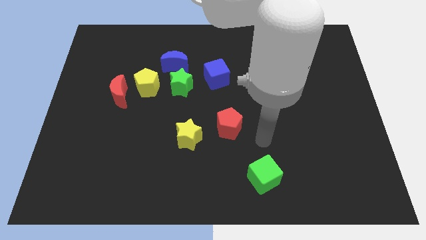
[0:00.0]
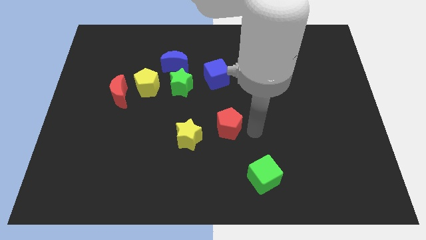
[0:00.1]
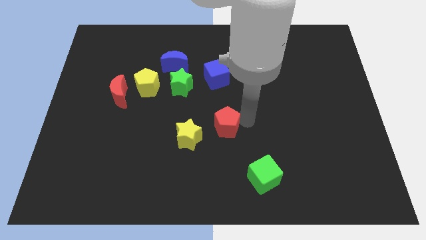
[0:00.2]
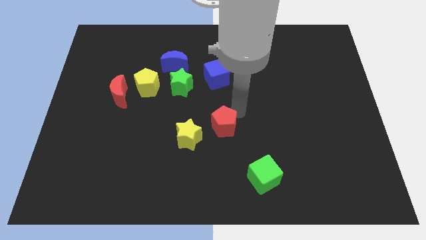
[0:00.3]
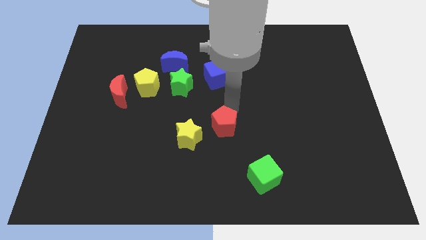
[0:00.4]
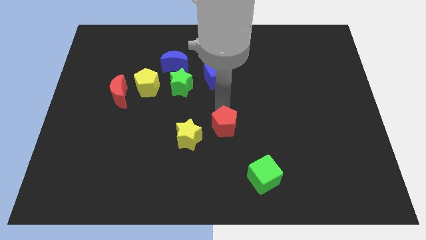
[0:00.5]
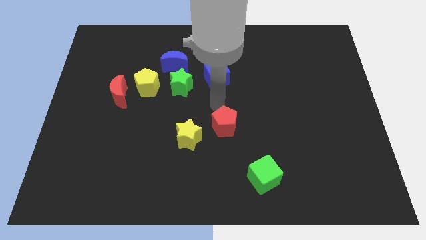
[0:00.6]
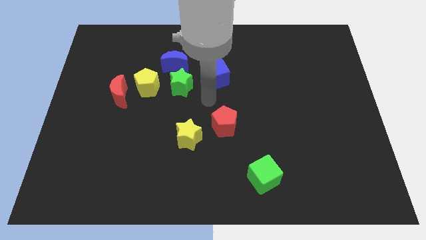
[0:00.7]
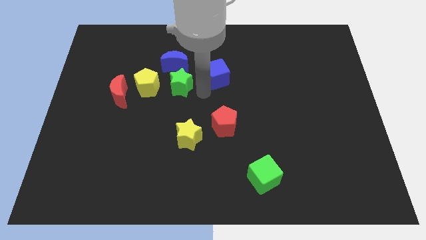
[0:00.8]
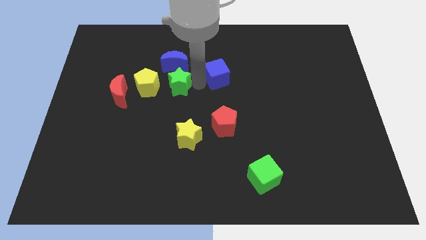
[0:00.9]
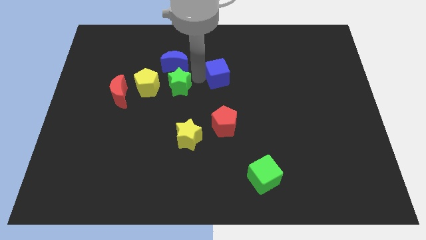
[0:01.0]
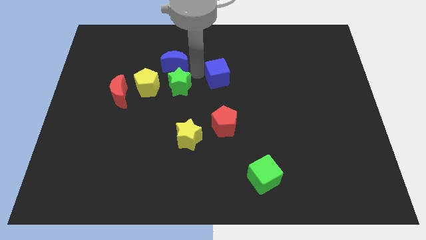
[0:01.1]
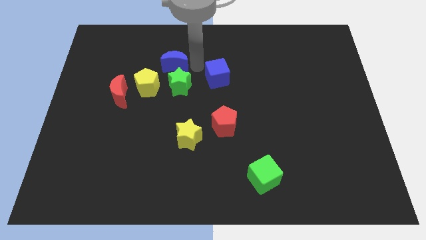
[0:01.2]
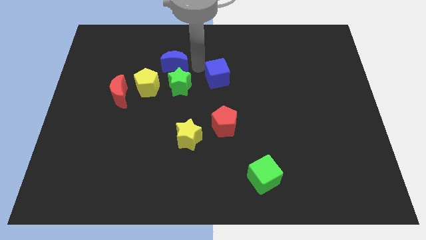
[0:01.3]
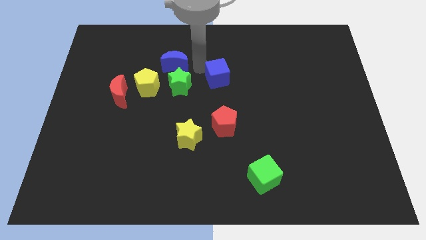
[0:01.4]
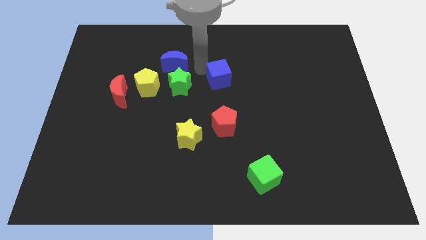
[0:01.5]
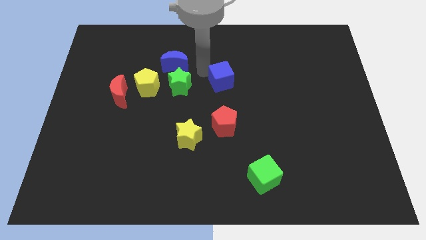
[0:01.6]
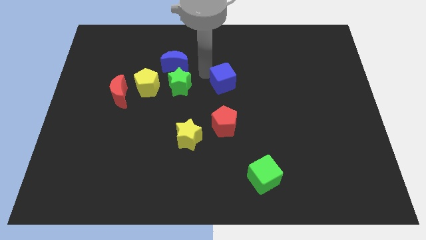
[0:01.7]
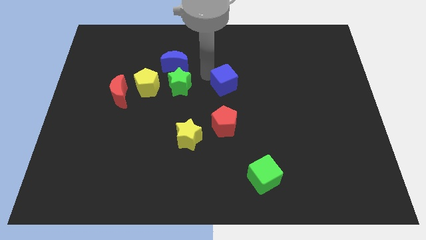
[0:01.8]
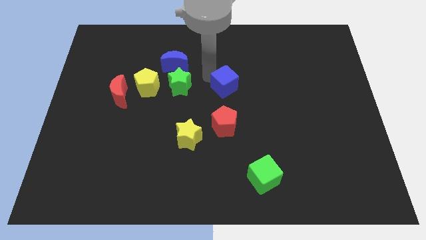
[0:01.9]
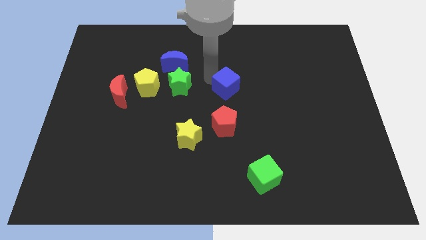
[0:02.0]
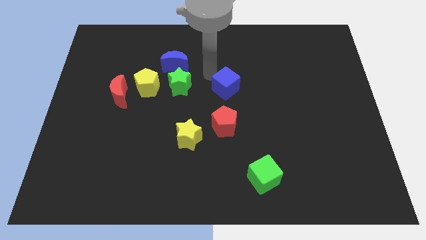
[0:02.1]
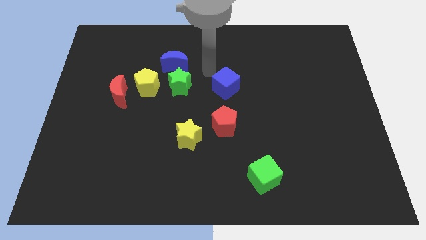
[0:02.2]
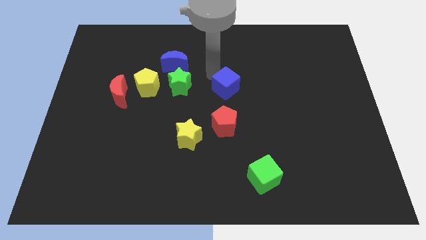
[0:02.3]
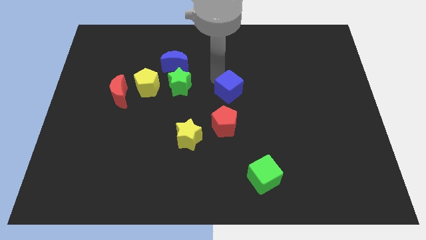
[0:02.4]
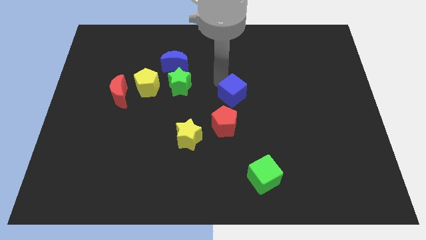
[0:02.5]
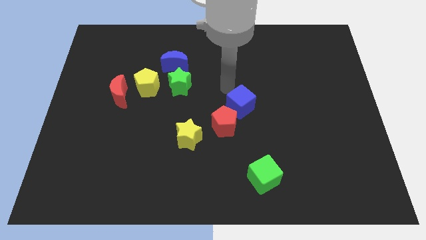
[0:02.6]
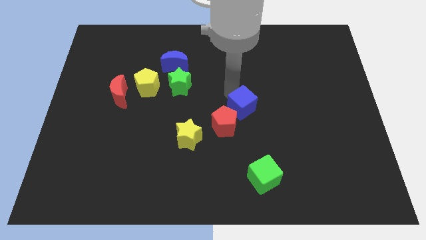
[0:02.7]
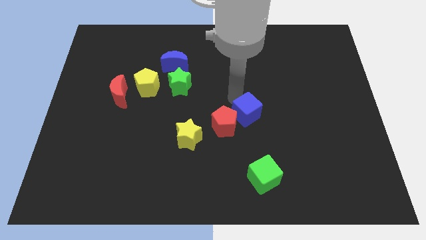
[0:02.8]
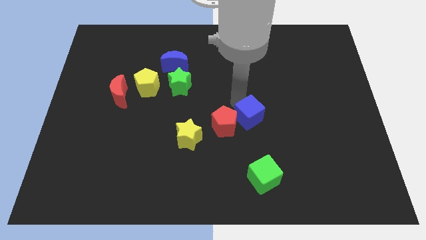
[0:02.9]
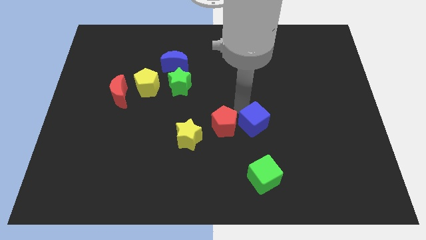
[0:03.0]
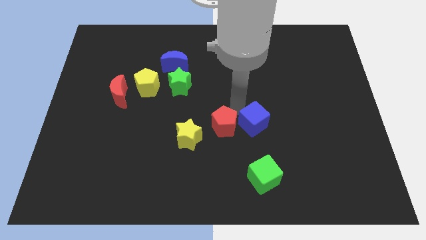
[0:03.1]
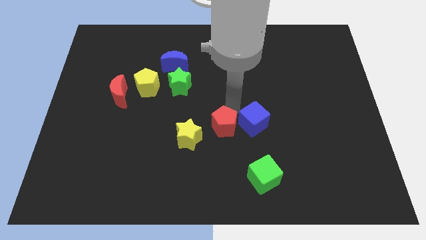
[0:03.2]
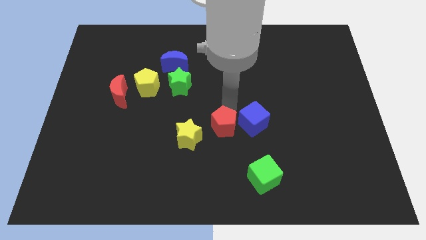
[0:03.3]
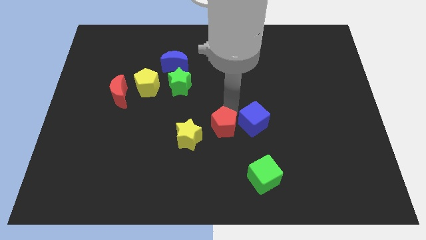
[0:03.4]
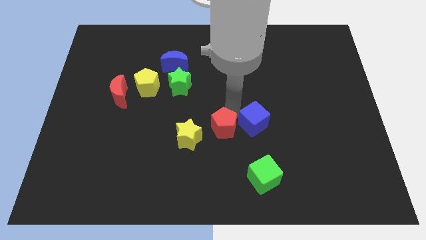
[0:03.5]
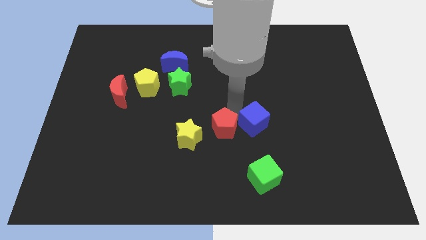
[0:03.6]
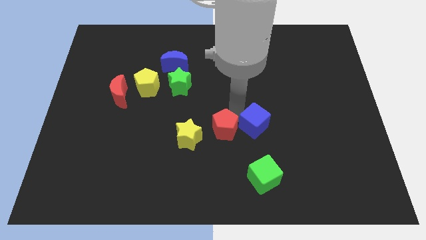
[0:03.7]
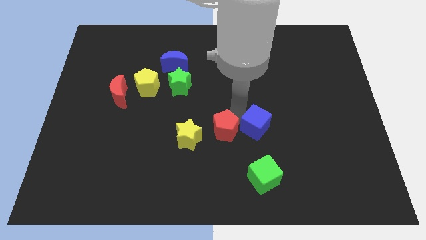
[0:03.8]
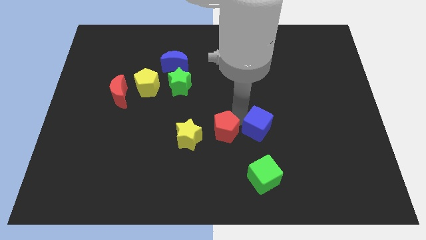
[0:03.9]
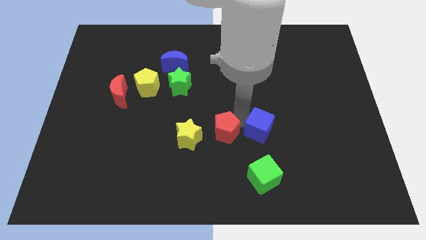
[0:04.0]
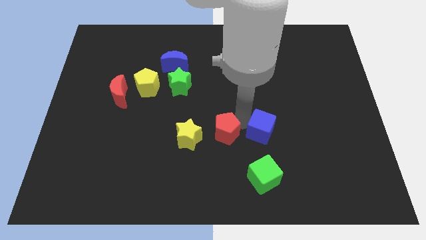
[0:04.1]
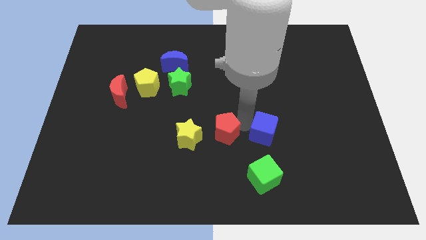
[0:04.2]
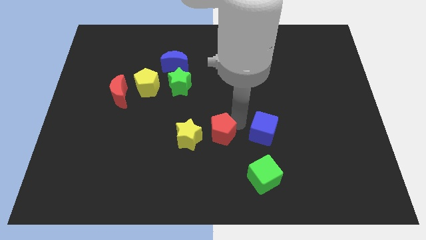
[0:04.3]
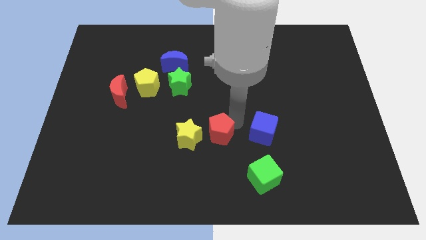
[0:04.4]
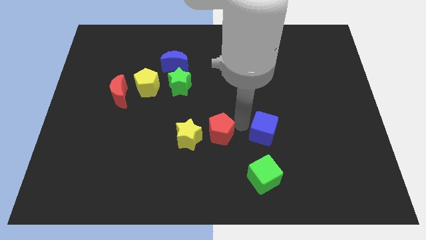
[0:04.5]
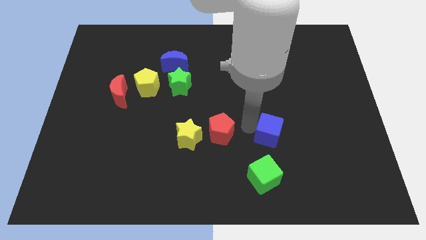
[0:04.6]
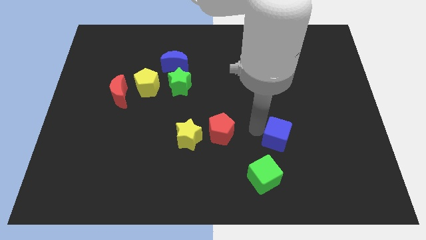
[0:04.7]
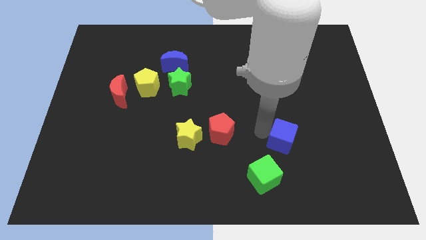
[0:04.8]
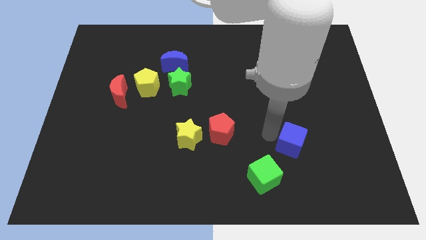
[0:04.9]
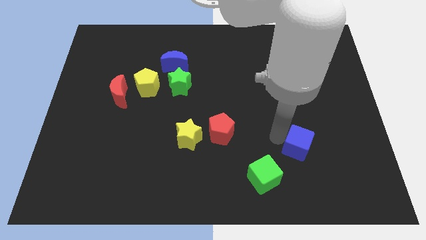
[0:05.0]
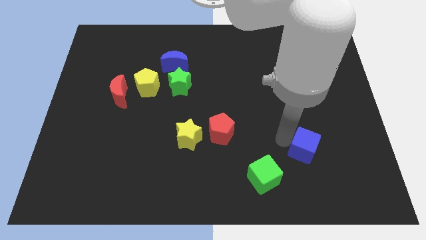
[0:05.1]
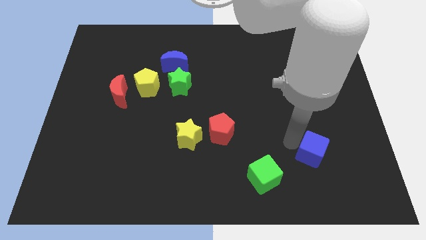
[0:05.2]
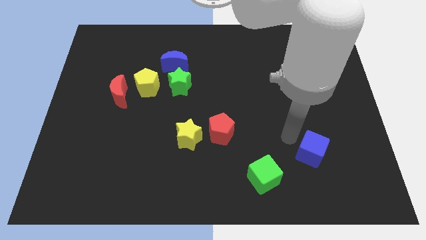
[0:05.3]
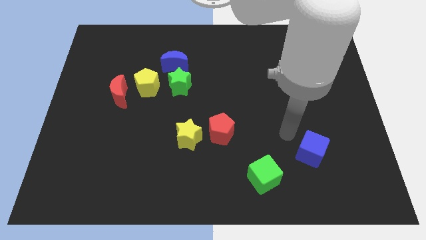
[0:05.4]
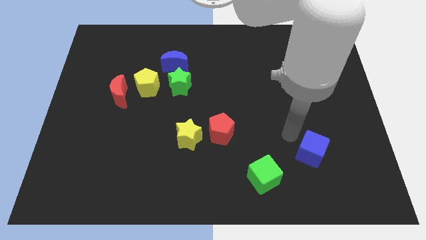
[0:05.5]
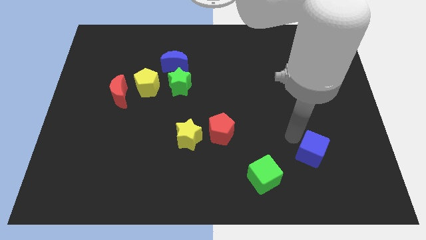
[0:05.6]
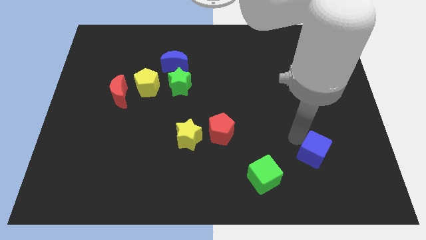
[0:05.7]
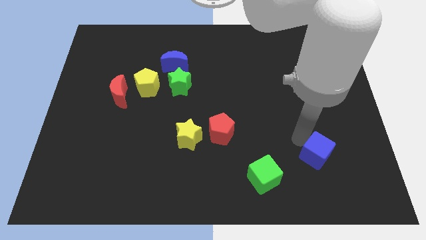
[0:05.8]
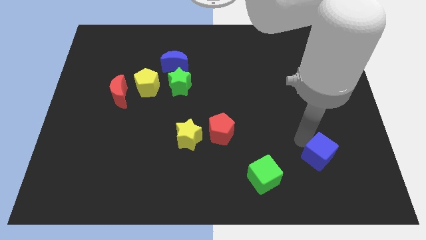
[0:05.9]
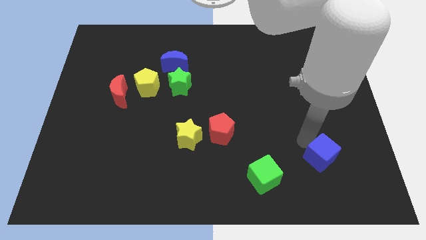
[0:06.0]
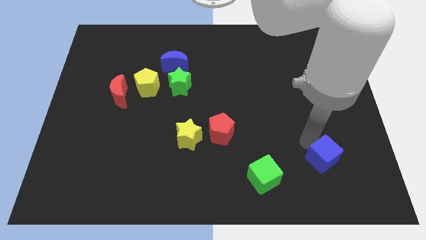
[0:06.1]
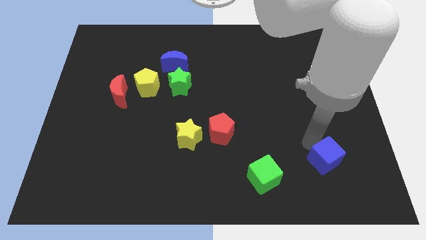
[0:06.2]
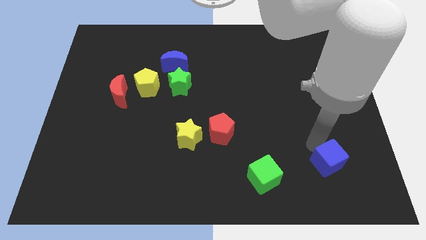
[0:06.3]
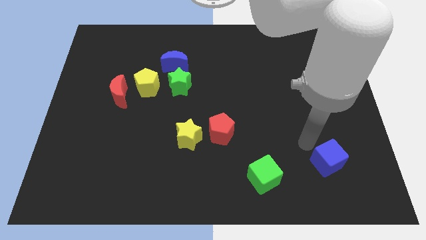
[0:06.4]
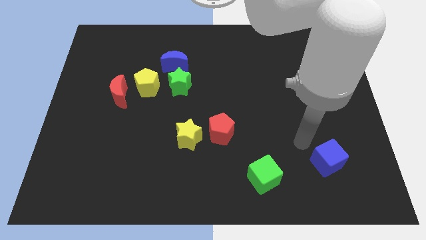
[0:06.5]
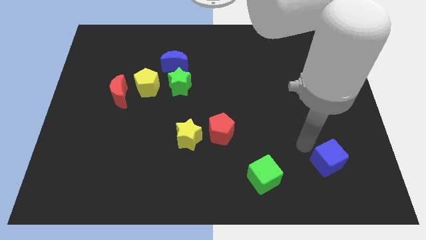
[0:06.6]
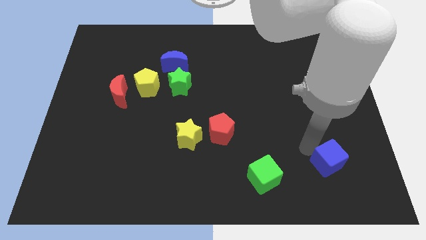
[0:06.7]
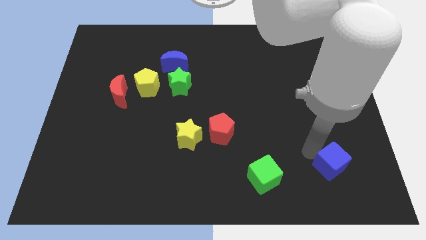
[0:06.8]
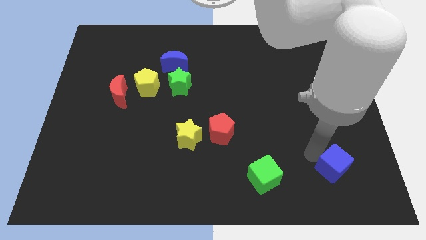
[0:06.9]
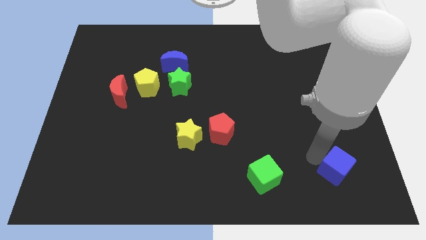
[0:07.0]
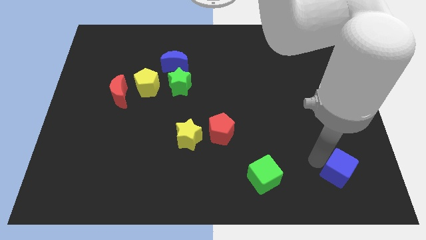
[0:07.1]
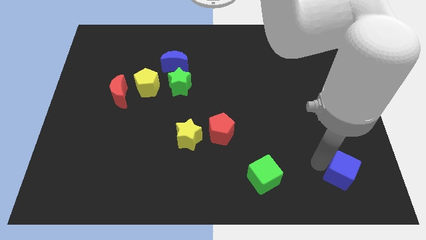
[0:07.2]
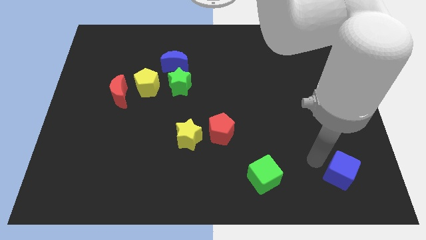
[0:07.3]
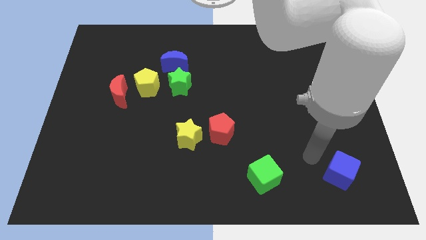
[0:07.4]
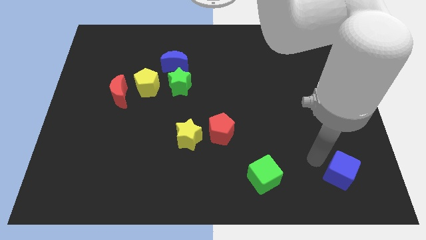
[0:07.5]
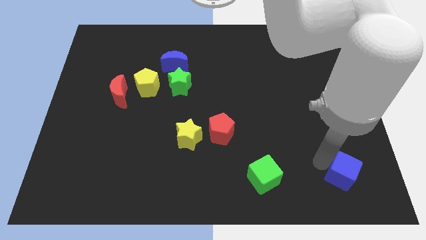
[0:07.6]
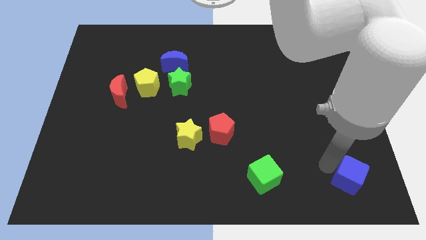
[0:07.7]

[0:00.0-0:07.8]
put the blue cube to the bottom right
